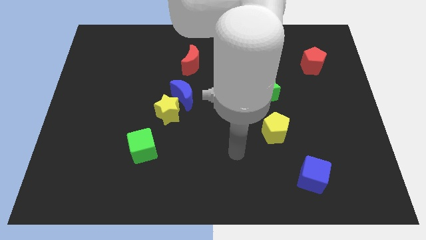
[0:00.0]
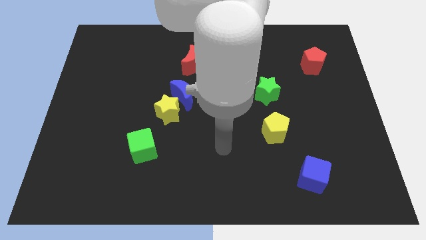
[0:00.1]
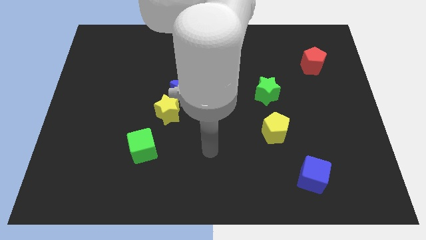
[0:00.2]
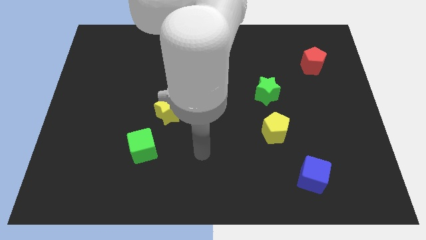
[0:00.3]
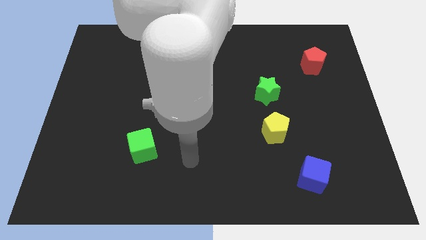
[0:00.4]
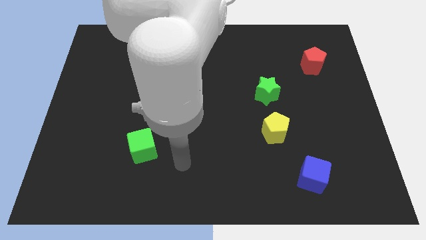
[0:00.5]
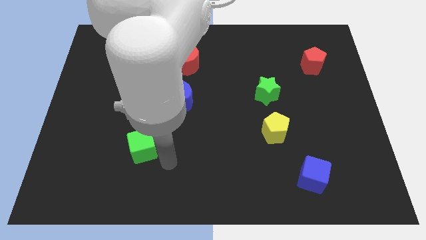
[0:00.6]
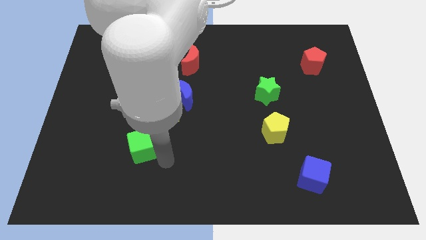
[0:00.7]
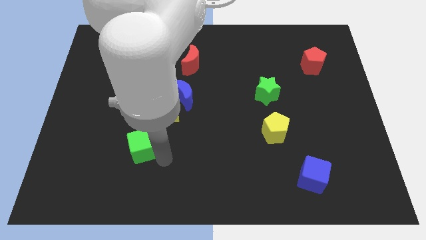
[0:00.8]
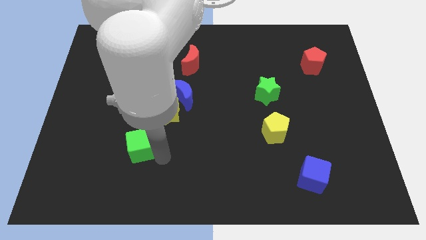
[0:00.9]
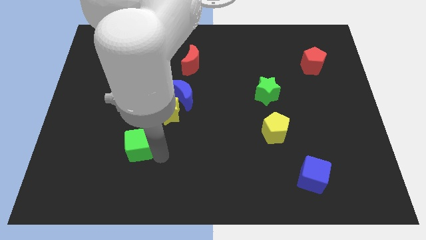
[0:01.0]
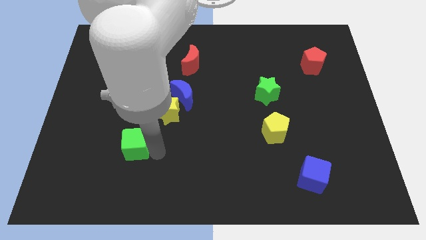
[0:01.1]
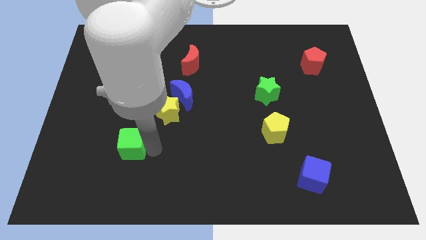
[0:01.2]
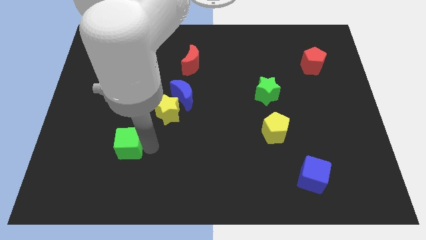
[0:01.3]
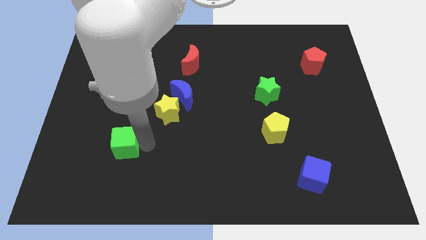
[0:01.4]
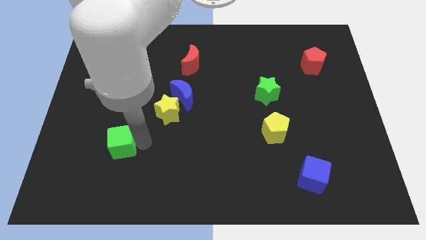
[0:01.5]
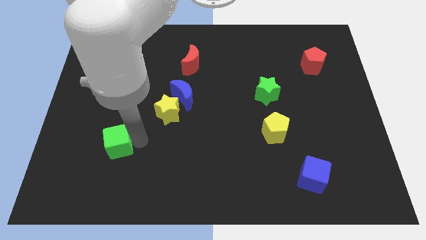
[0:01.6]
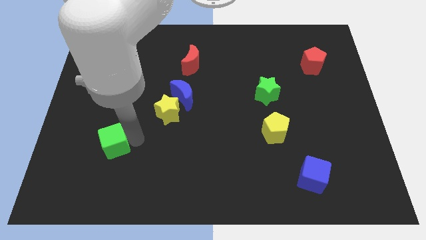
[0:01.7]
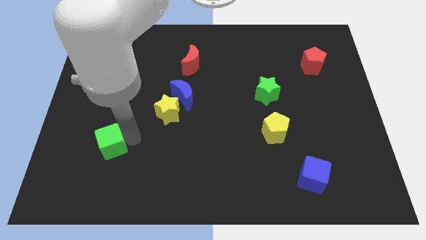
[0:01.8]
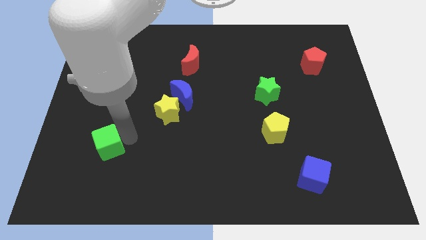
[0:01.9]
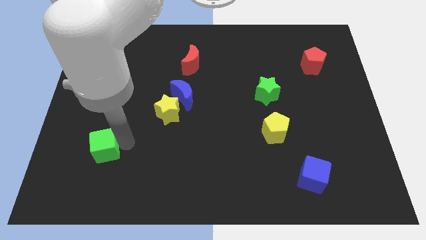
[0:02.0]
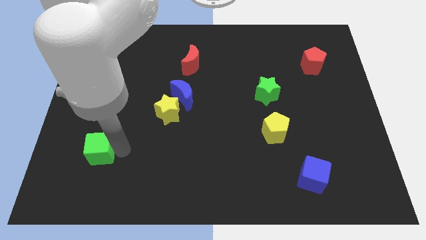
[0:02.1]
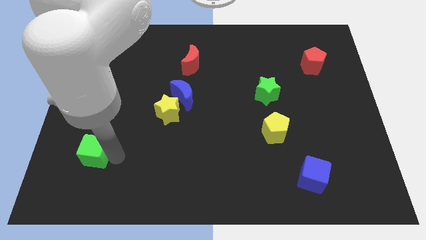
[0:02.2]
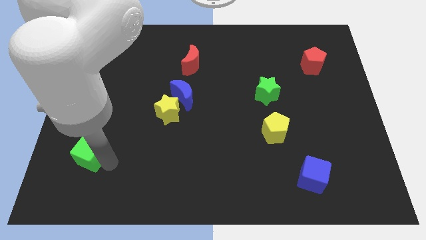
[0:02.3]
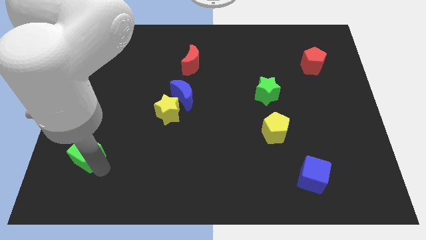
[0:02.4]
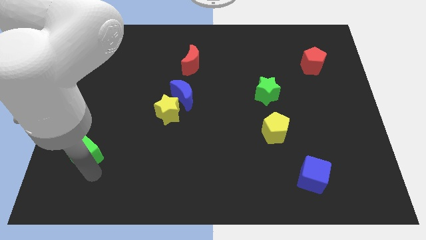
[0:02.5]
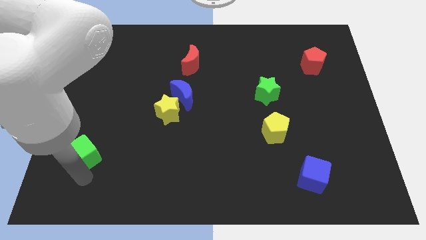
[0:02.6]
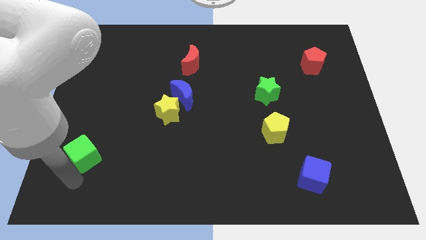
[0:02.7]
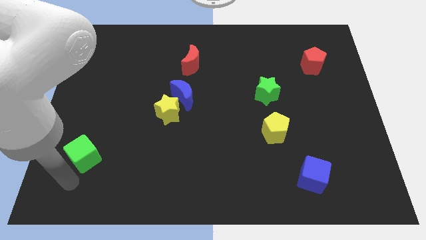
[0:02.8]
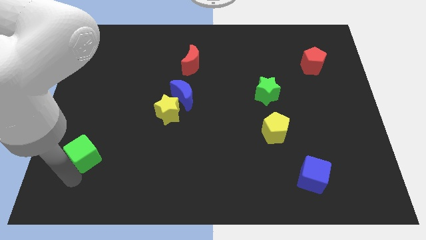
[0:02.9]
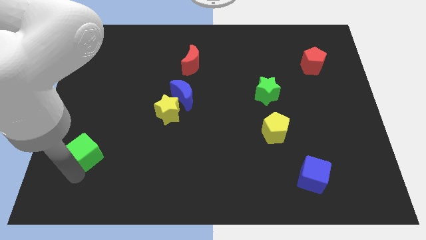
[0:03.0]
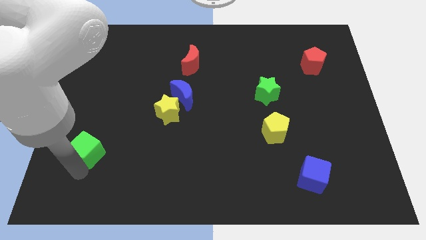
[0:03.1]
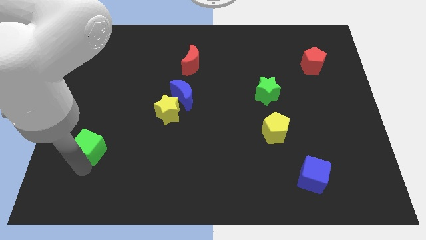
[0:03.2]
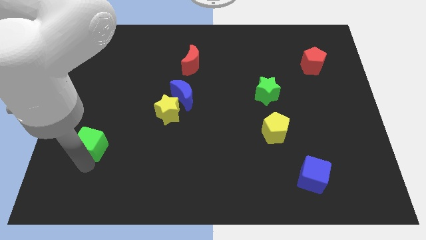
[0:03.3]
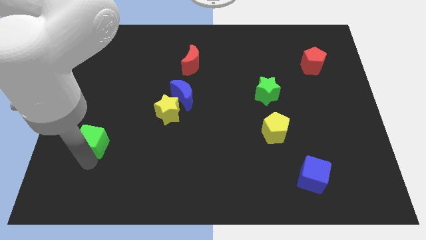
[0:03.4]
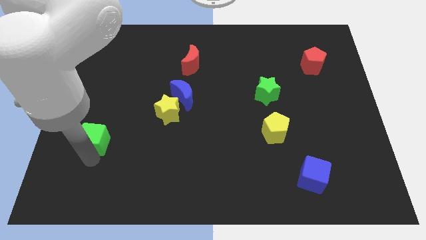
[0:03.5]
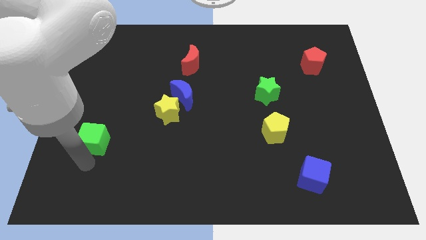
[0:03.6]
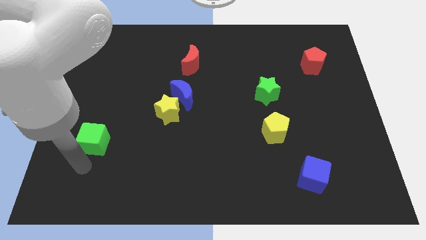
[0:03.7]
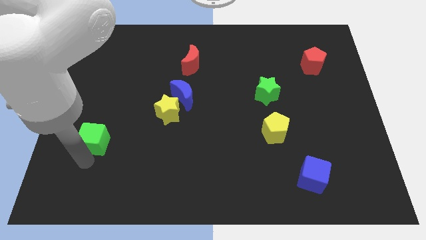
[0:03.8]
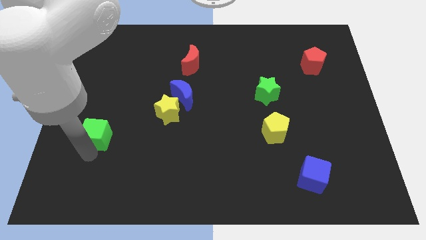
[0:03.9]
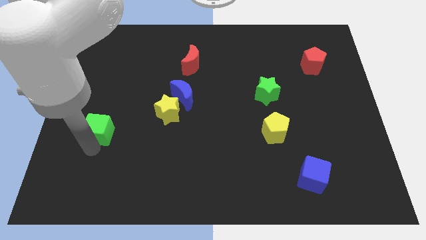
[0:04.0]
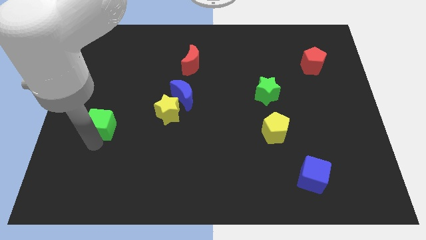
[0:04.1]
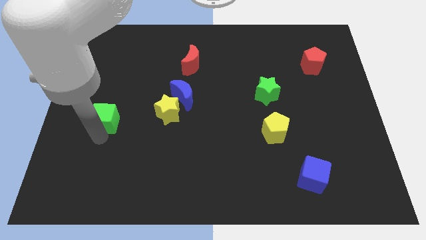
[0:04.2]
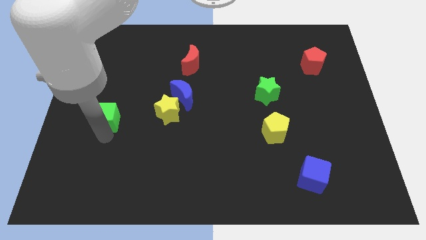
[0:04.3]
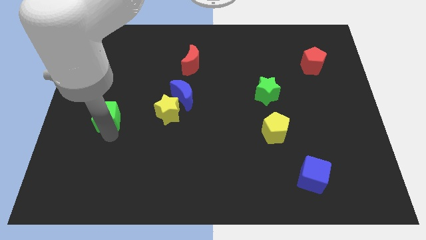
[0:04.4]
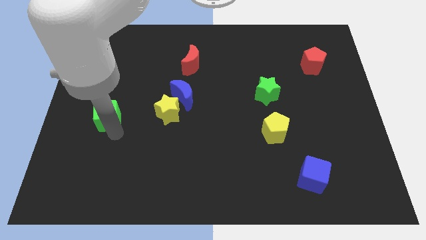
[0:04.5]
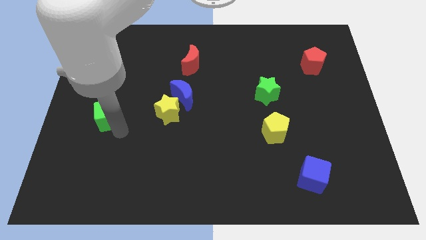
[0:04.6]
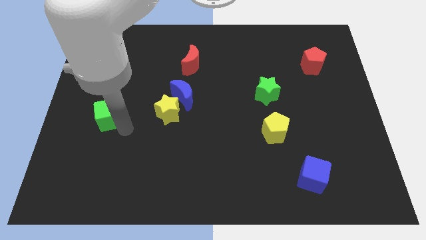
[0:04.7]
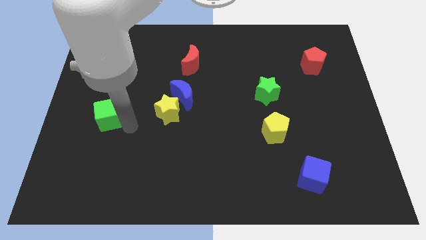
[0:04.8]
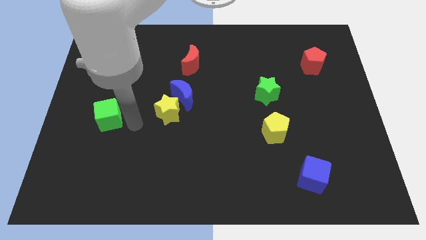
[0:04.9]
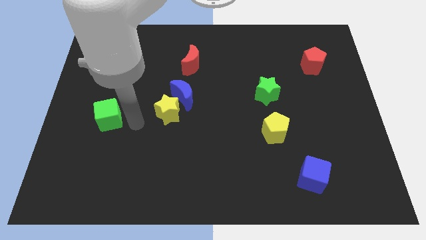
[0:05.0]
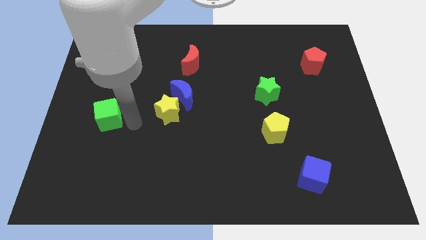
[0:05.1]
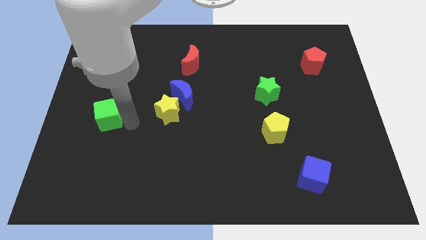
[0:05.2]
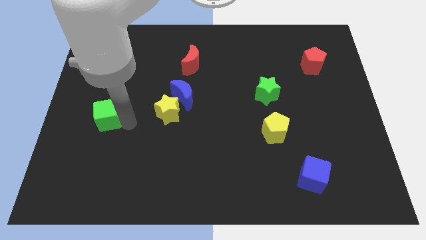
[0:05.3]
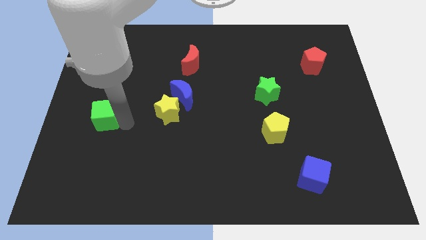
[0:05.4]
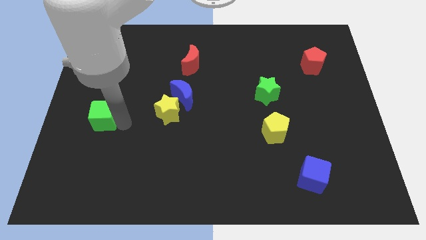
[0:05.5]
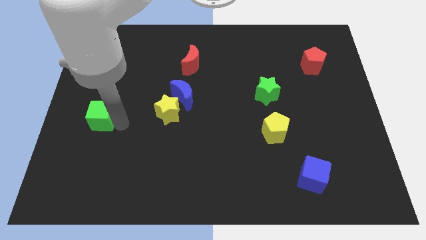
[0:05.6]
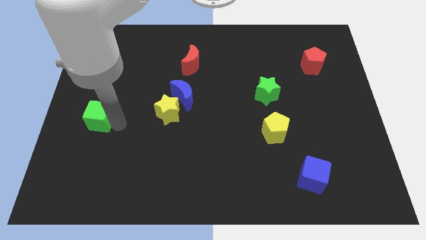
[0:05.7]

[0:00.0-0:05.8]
slide the green cube to the left side of the board
